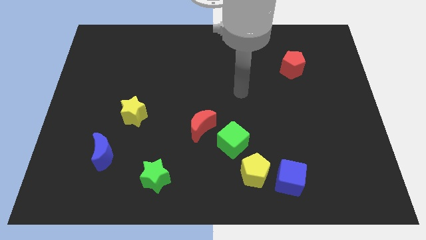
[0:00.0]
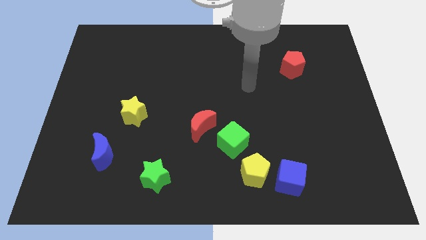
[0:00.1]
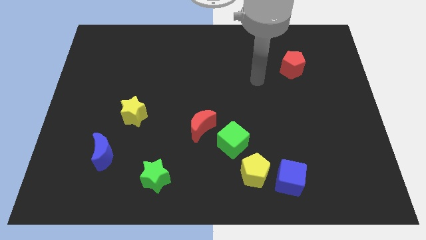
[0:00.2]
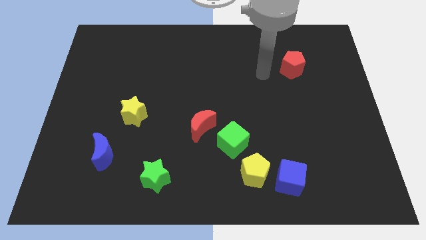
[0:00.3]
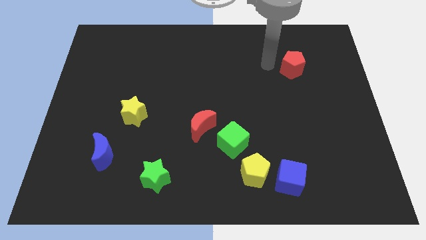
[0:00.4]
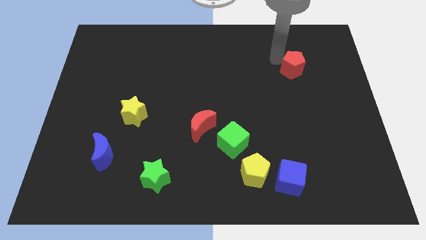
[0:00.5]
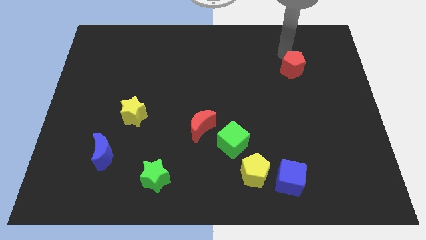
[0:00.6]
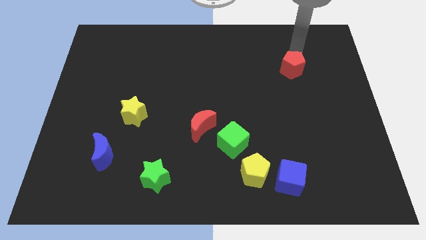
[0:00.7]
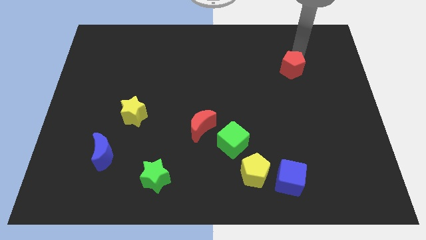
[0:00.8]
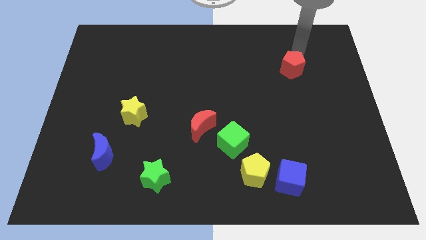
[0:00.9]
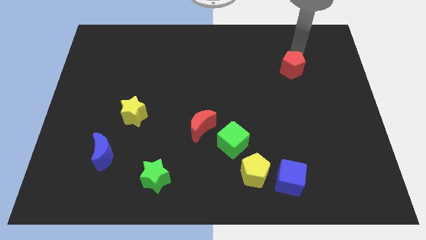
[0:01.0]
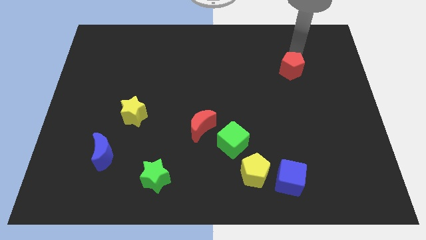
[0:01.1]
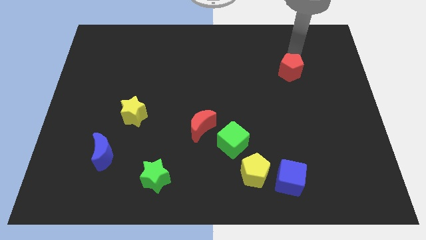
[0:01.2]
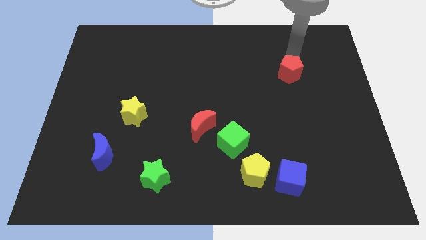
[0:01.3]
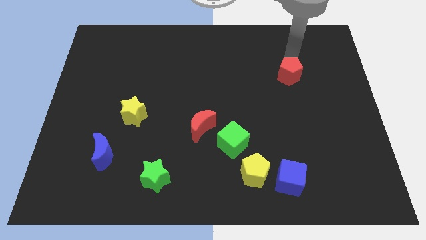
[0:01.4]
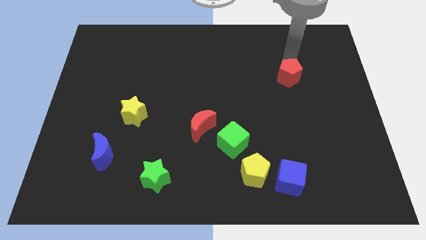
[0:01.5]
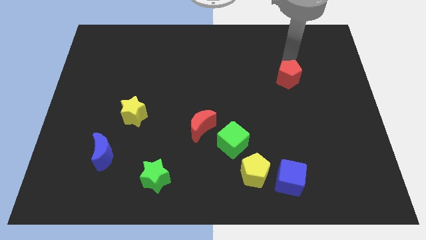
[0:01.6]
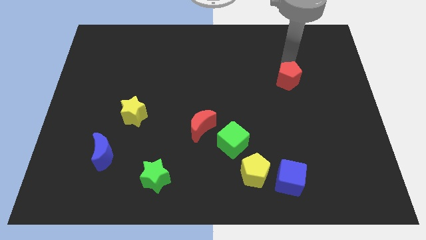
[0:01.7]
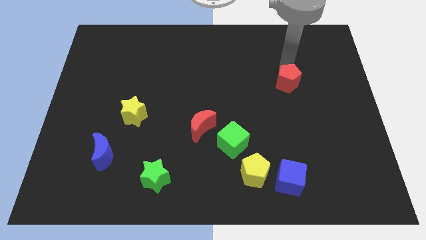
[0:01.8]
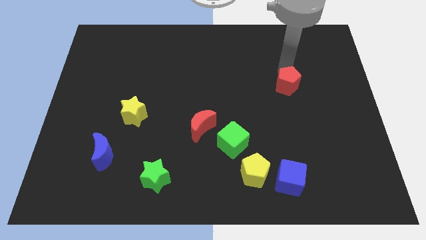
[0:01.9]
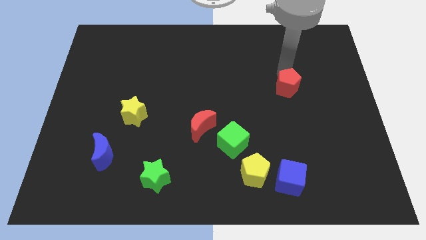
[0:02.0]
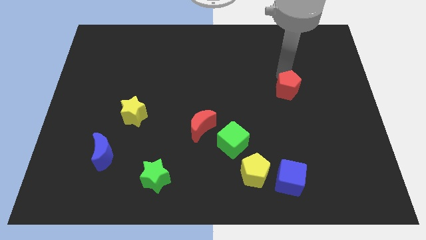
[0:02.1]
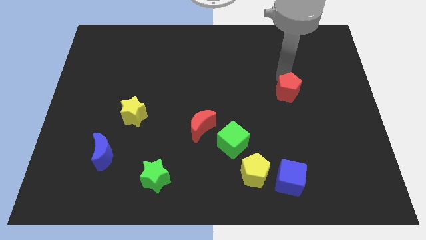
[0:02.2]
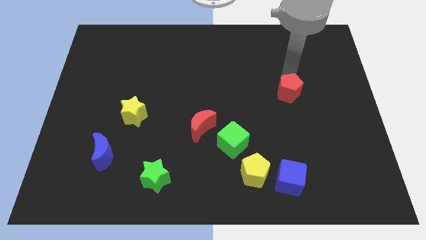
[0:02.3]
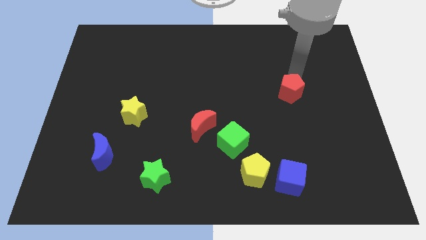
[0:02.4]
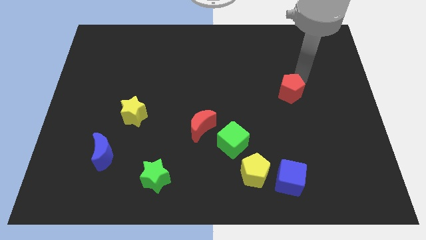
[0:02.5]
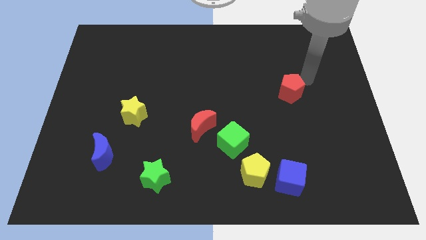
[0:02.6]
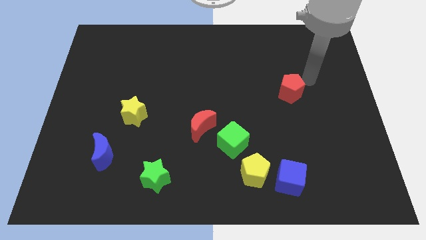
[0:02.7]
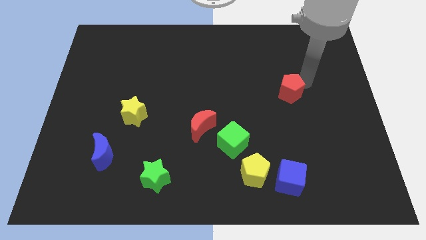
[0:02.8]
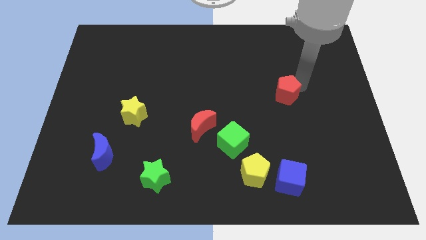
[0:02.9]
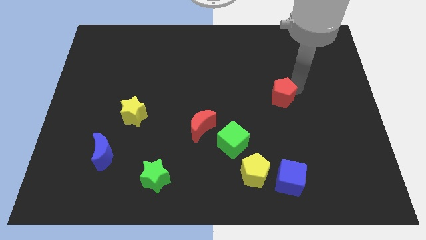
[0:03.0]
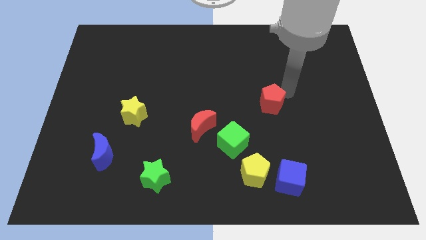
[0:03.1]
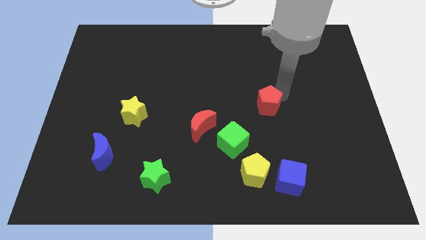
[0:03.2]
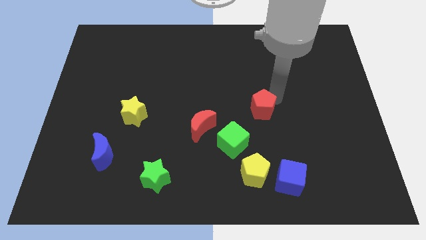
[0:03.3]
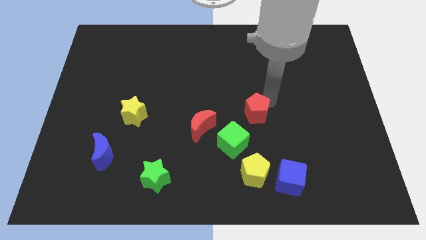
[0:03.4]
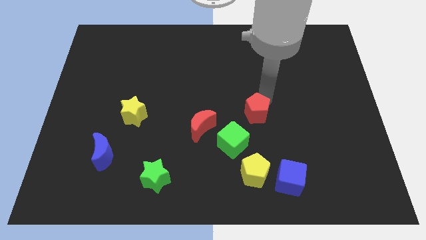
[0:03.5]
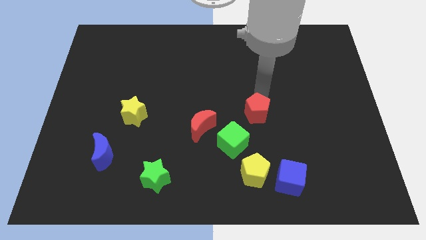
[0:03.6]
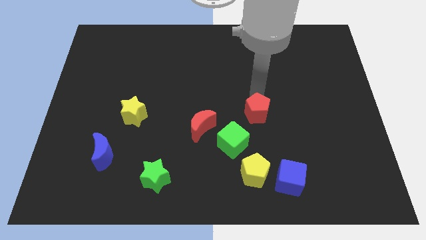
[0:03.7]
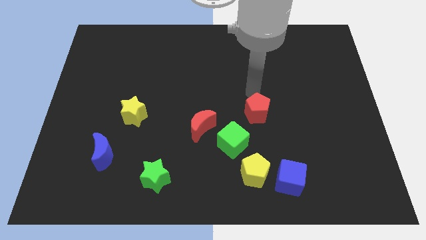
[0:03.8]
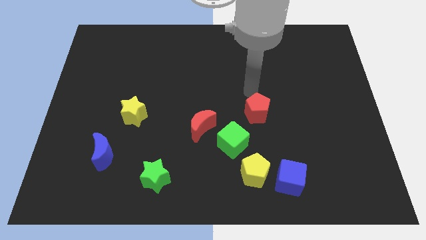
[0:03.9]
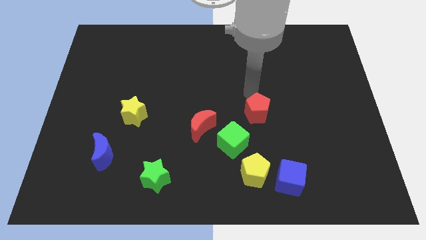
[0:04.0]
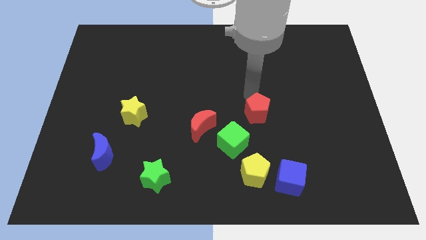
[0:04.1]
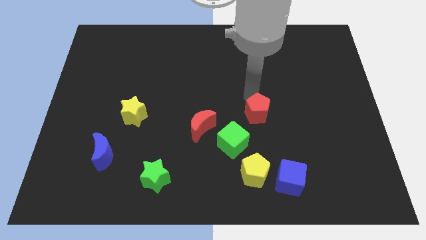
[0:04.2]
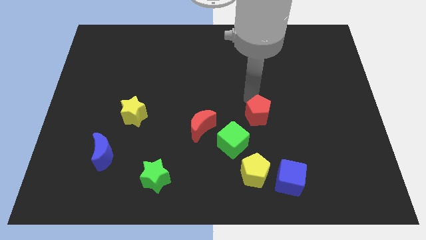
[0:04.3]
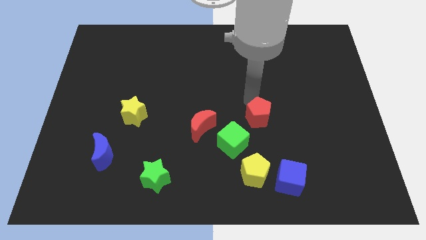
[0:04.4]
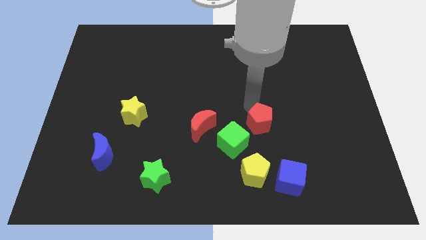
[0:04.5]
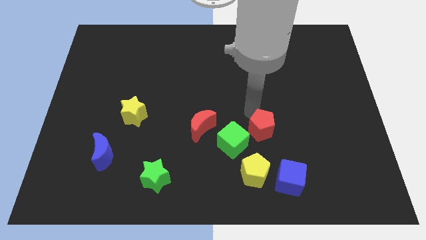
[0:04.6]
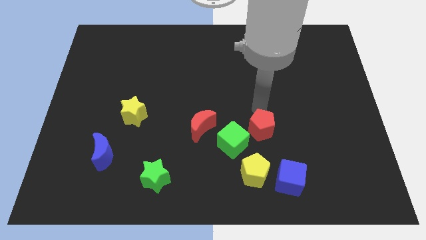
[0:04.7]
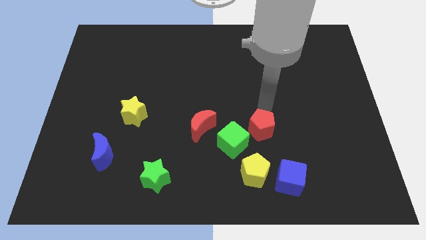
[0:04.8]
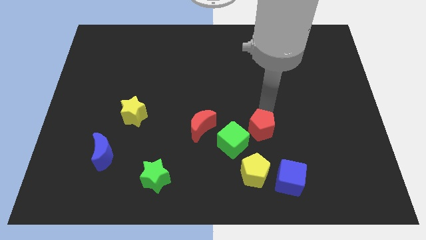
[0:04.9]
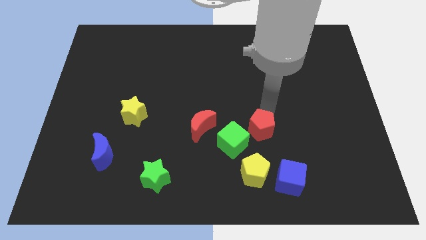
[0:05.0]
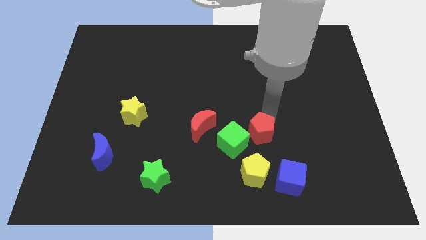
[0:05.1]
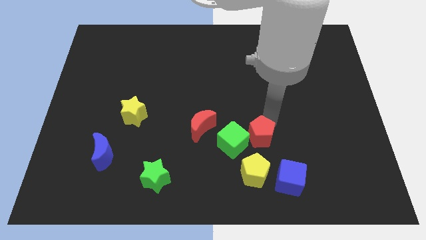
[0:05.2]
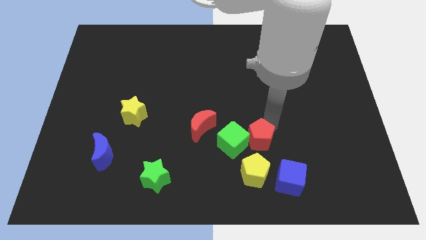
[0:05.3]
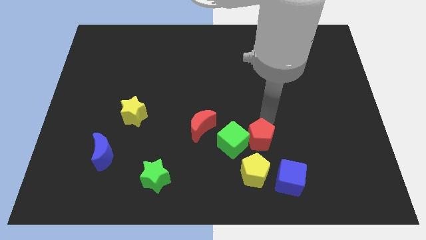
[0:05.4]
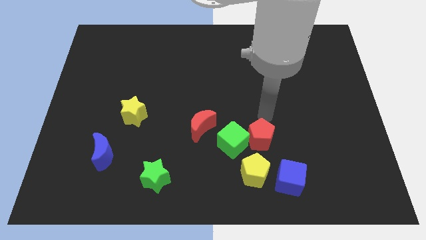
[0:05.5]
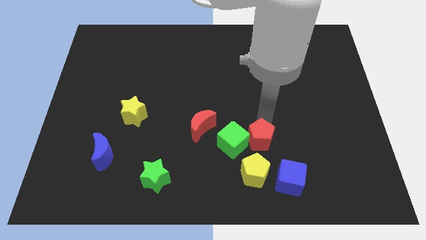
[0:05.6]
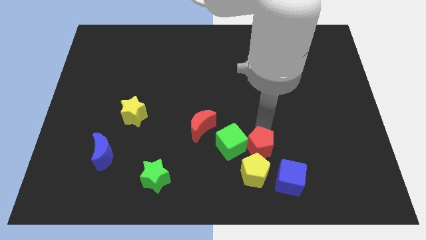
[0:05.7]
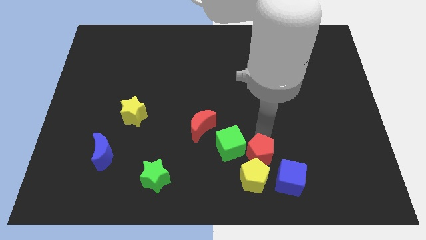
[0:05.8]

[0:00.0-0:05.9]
move the red pentagon close to the yellow pentagon

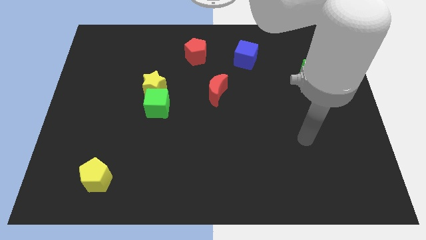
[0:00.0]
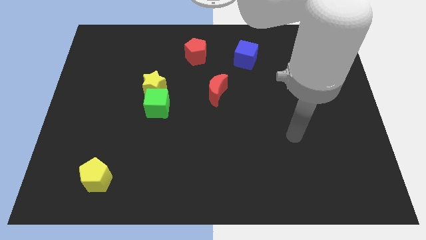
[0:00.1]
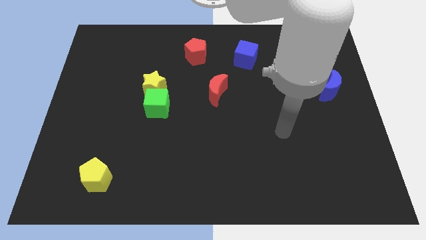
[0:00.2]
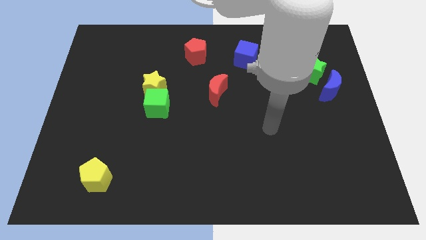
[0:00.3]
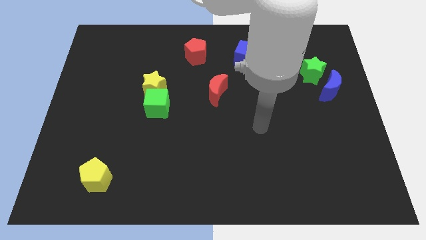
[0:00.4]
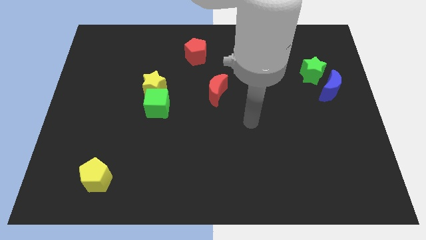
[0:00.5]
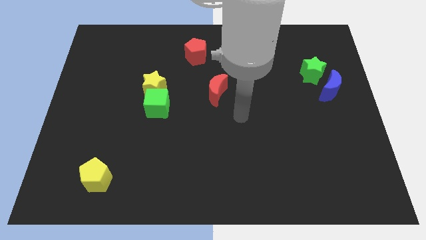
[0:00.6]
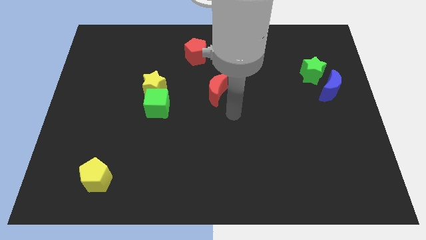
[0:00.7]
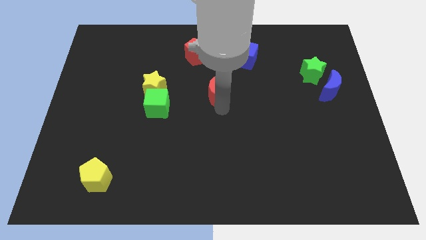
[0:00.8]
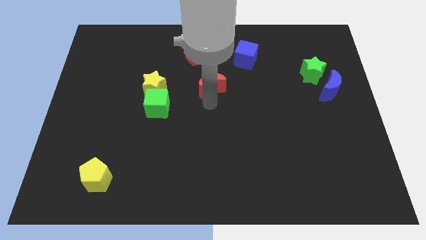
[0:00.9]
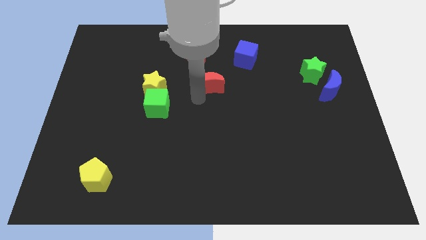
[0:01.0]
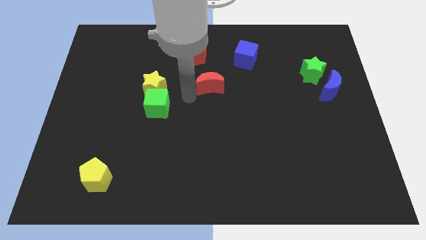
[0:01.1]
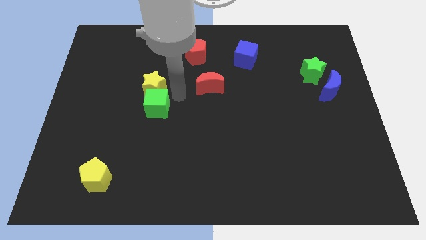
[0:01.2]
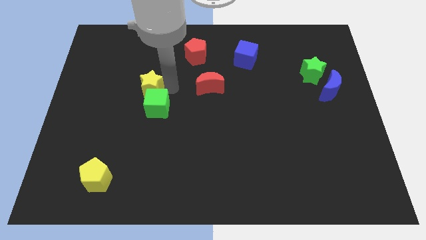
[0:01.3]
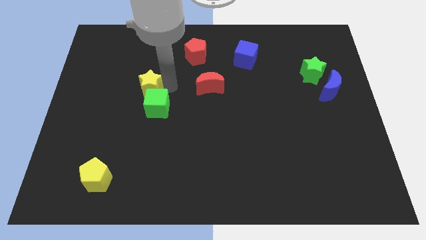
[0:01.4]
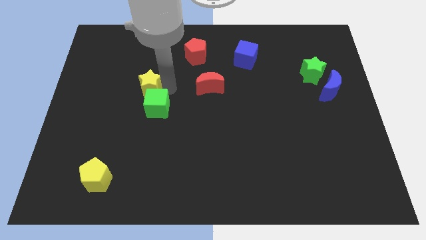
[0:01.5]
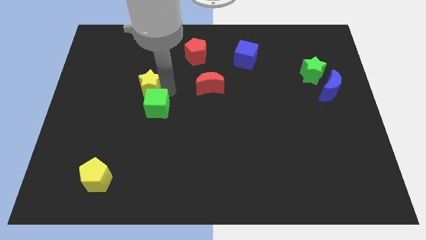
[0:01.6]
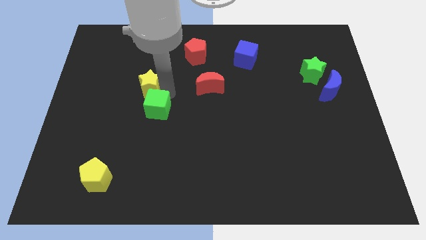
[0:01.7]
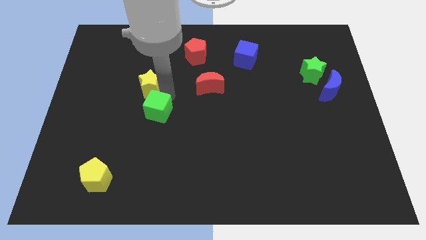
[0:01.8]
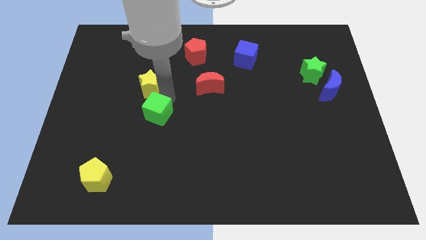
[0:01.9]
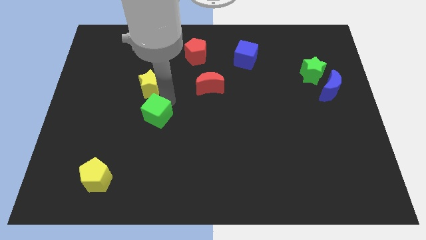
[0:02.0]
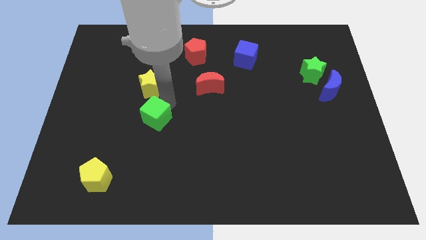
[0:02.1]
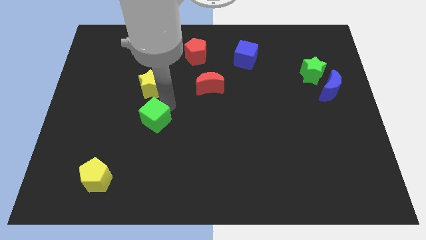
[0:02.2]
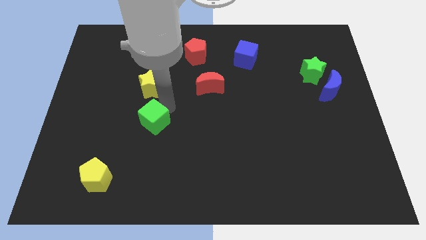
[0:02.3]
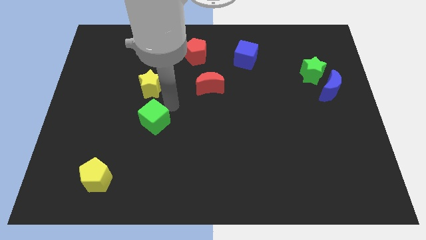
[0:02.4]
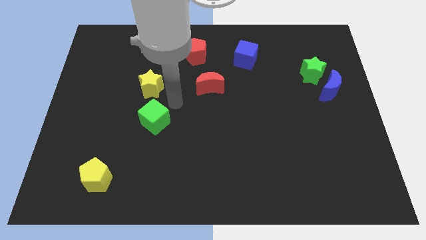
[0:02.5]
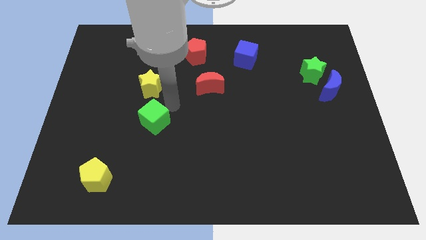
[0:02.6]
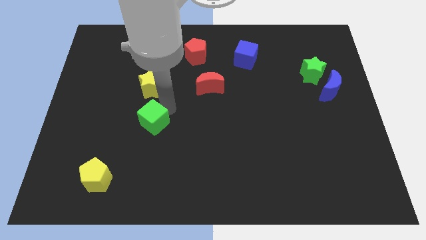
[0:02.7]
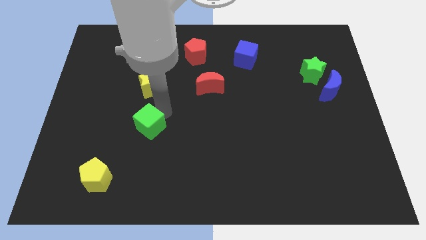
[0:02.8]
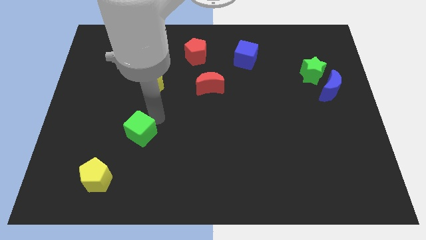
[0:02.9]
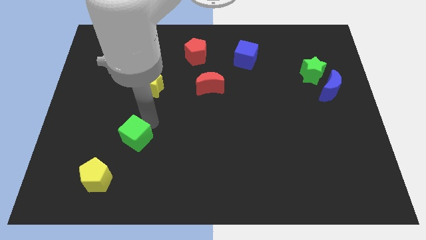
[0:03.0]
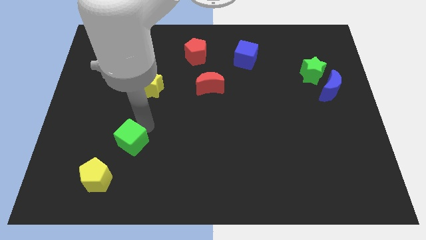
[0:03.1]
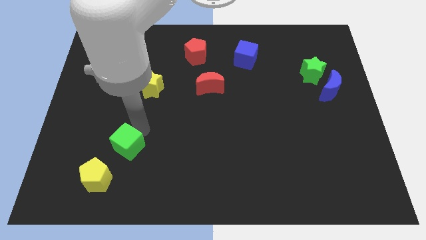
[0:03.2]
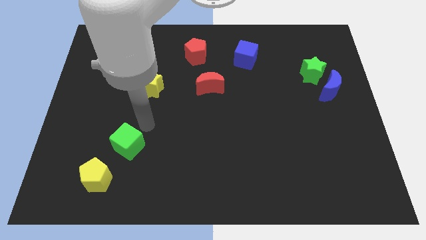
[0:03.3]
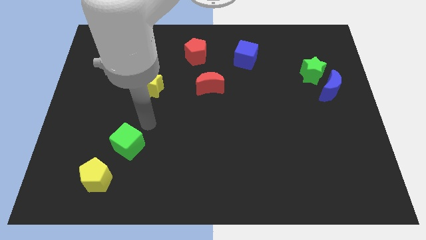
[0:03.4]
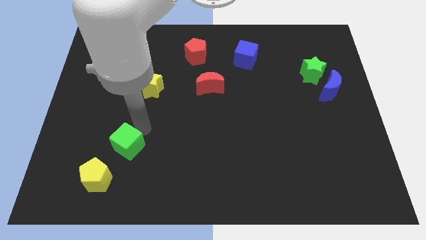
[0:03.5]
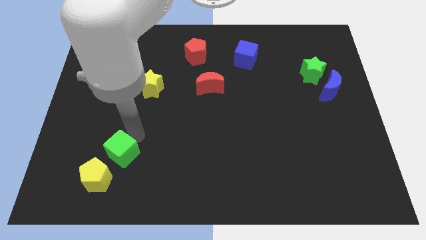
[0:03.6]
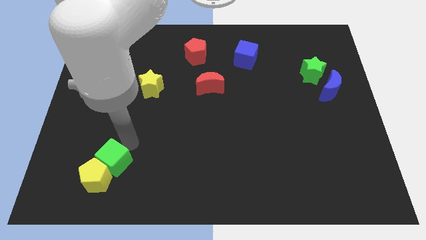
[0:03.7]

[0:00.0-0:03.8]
move the green cube to the yellow pentagon
